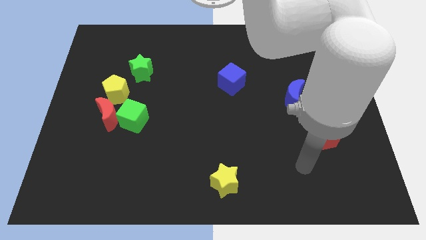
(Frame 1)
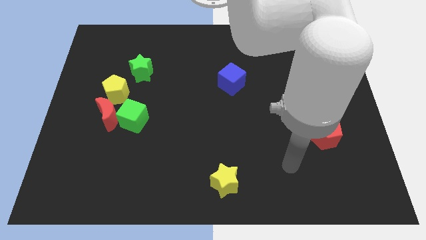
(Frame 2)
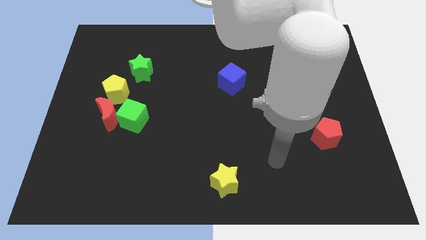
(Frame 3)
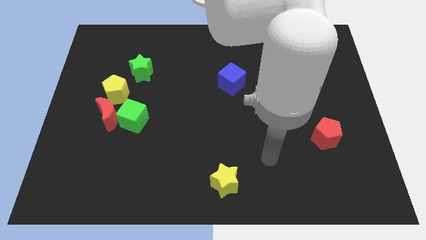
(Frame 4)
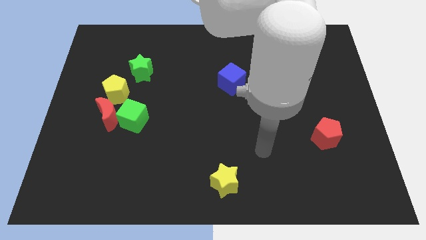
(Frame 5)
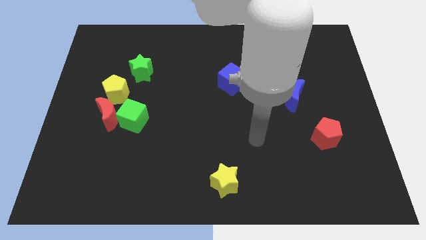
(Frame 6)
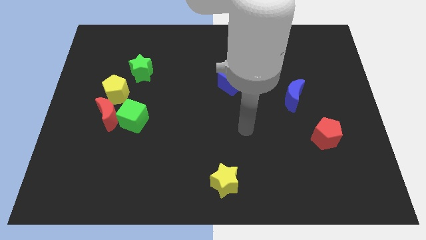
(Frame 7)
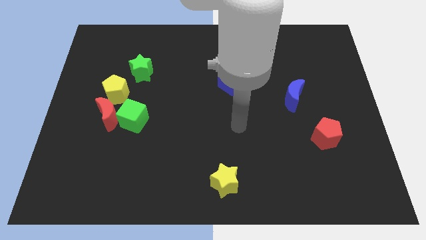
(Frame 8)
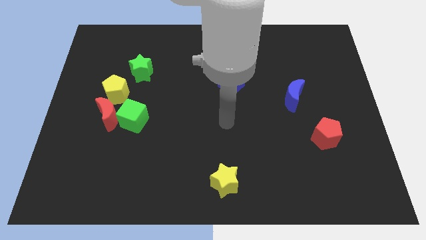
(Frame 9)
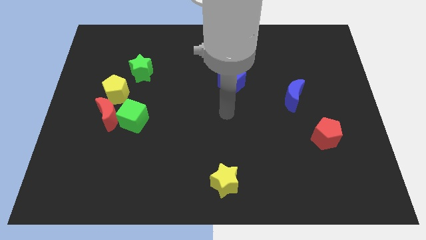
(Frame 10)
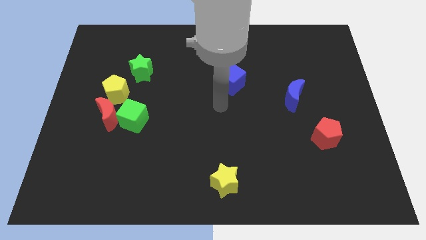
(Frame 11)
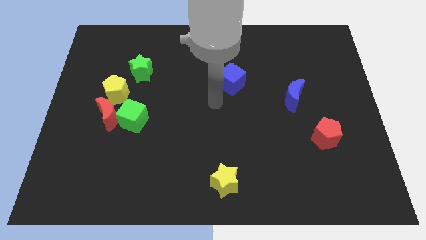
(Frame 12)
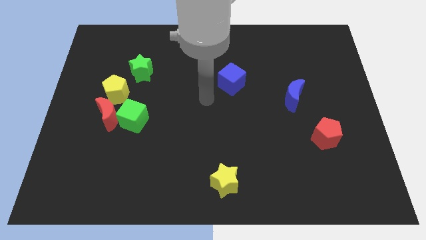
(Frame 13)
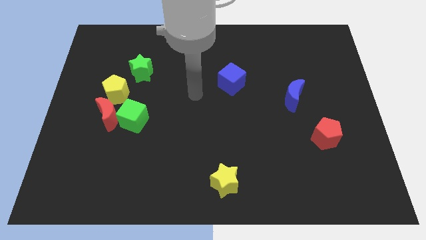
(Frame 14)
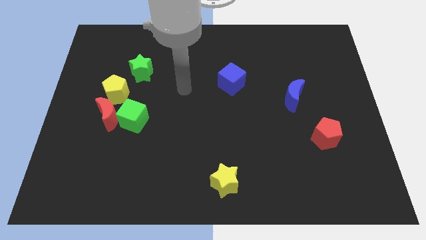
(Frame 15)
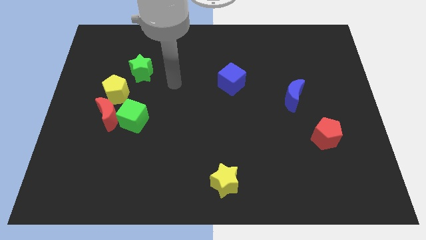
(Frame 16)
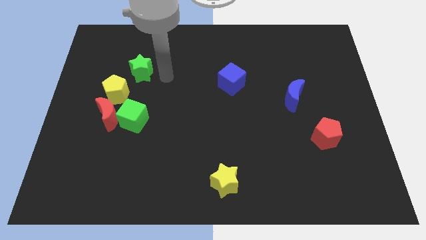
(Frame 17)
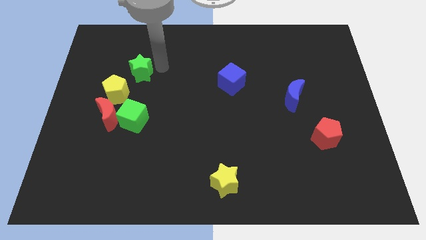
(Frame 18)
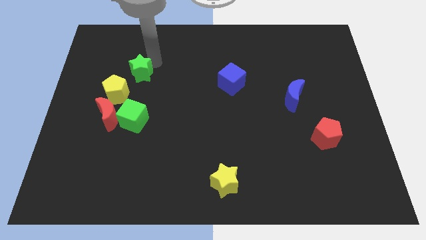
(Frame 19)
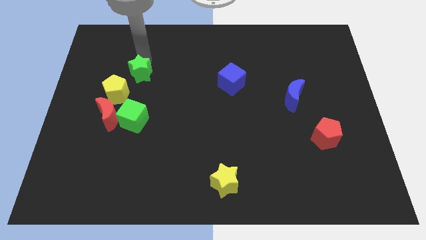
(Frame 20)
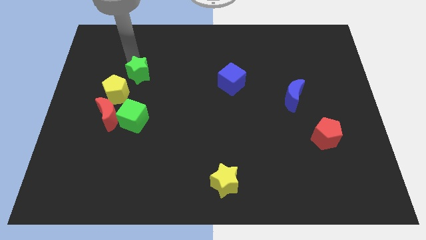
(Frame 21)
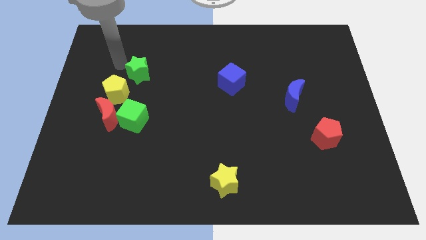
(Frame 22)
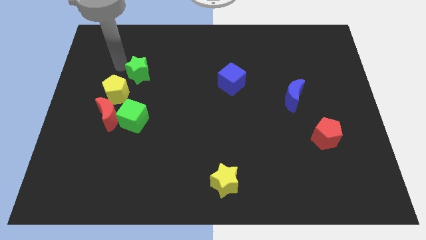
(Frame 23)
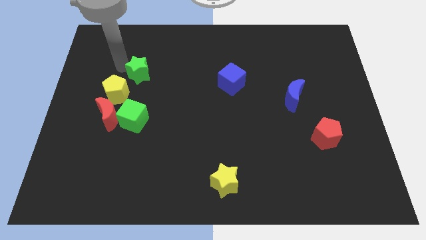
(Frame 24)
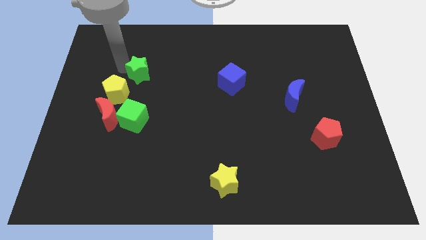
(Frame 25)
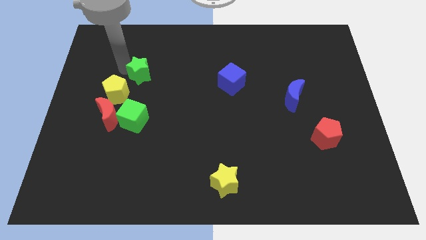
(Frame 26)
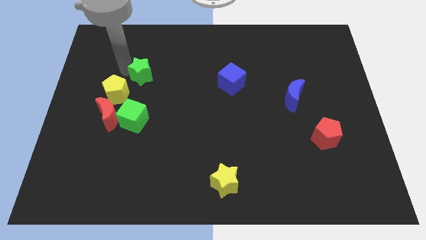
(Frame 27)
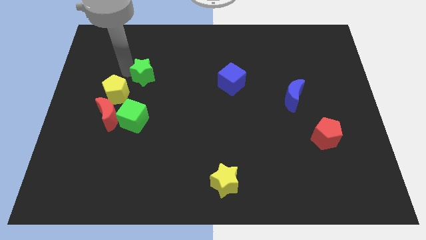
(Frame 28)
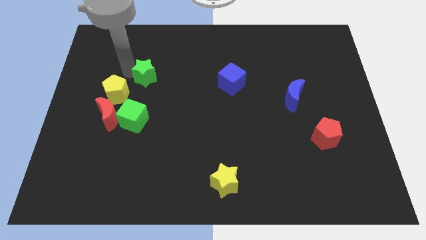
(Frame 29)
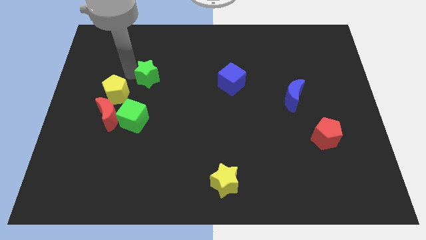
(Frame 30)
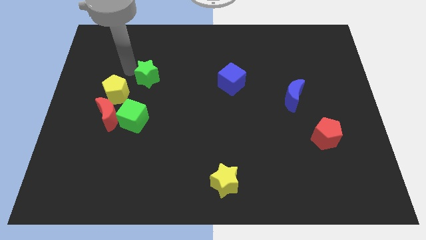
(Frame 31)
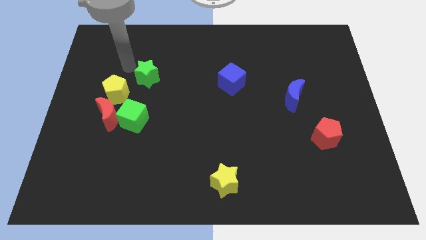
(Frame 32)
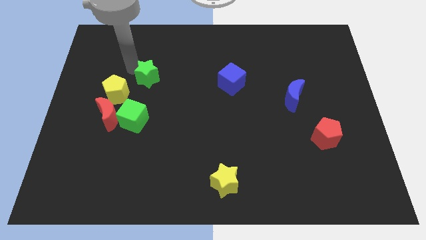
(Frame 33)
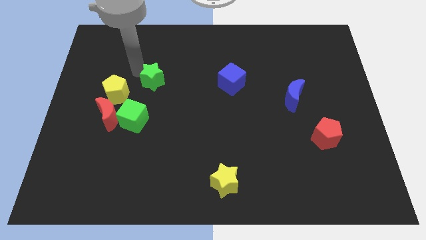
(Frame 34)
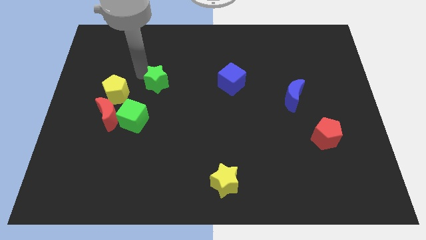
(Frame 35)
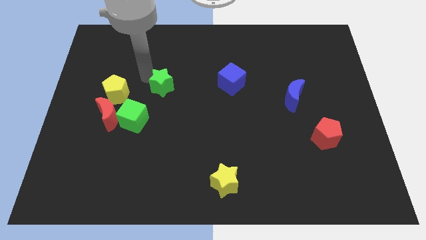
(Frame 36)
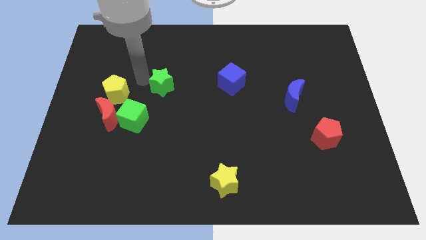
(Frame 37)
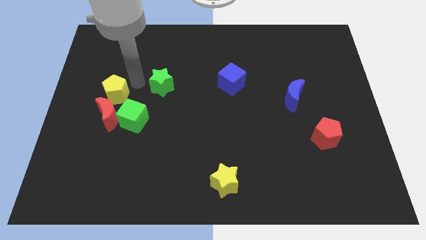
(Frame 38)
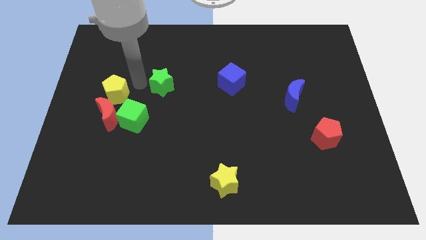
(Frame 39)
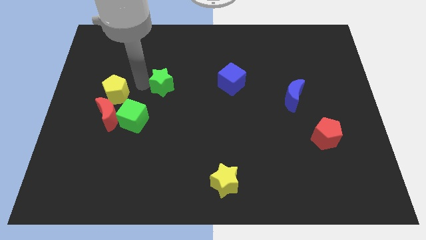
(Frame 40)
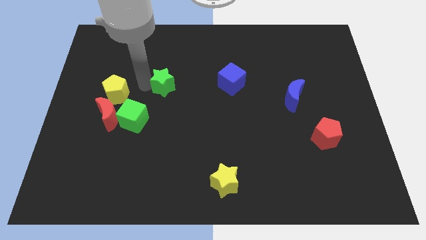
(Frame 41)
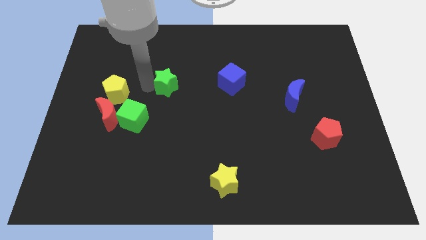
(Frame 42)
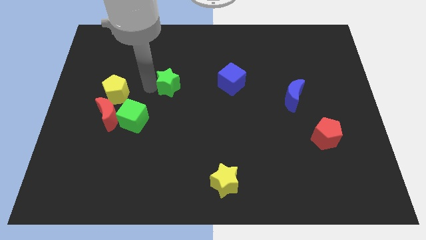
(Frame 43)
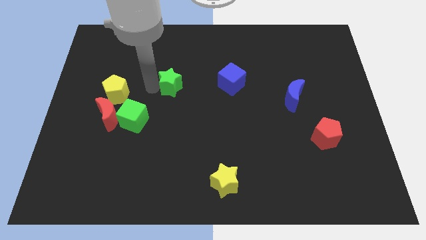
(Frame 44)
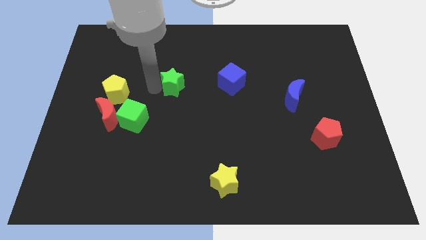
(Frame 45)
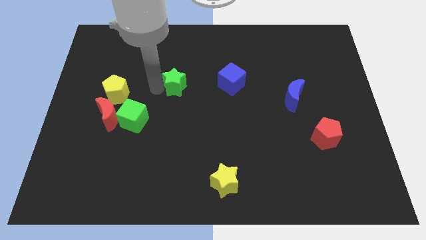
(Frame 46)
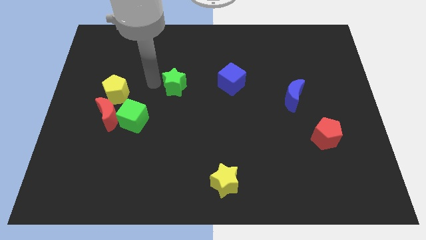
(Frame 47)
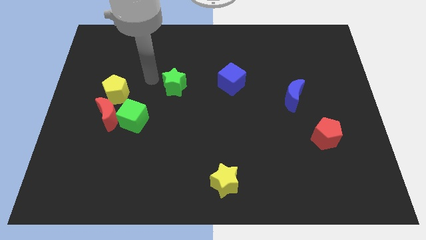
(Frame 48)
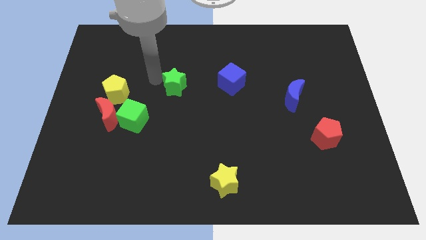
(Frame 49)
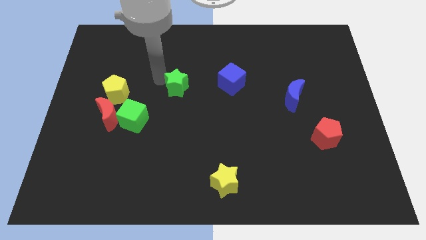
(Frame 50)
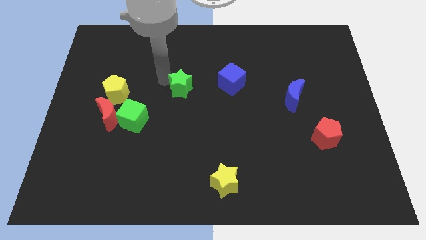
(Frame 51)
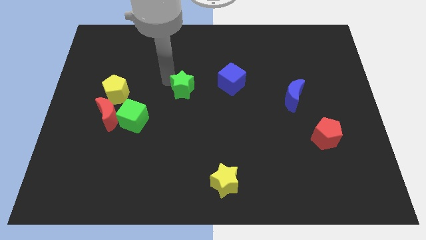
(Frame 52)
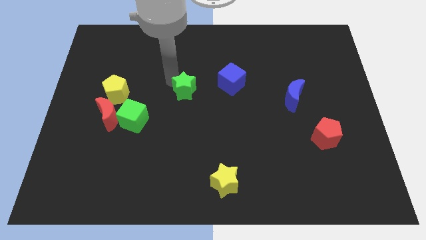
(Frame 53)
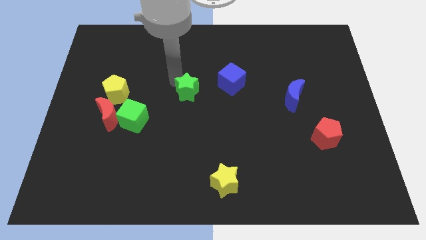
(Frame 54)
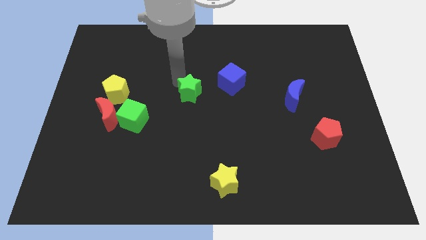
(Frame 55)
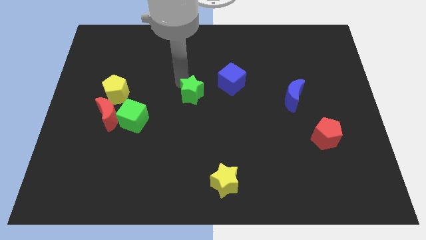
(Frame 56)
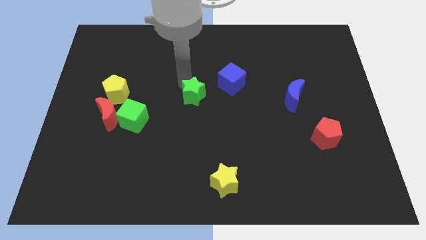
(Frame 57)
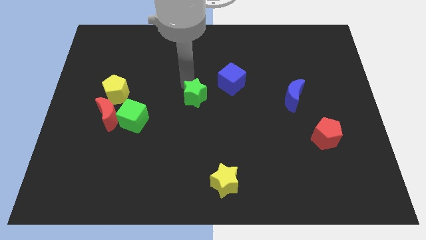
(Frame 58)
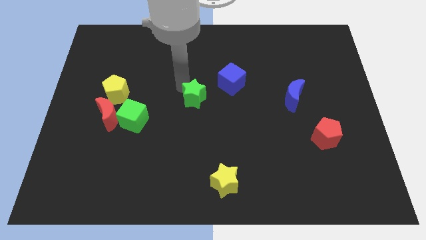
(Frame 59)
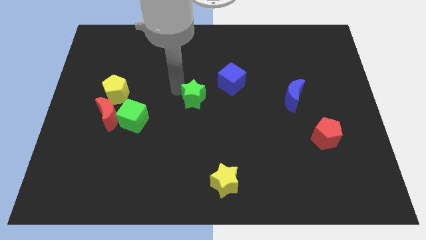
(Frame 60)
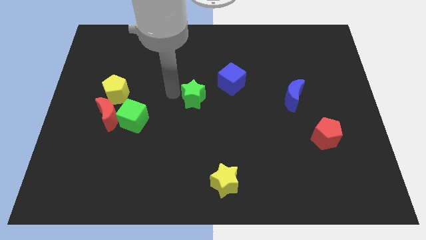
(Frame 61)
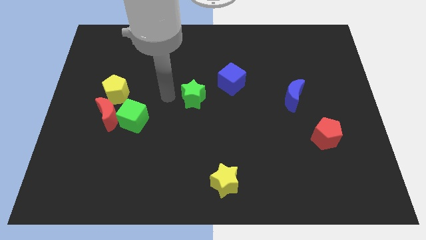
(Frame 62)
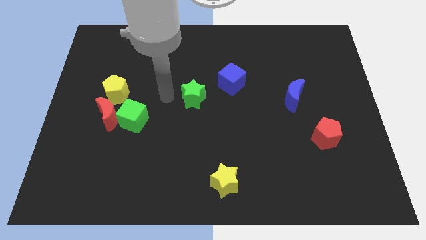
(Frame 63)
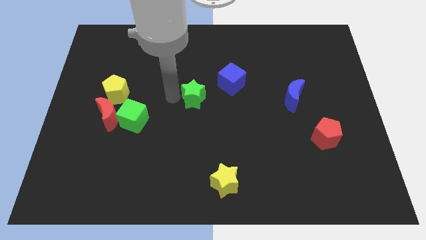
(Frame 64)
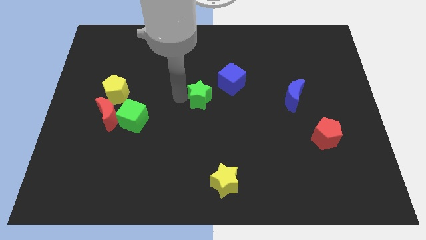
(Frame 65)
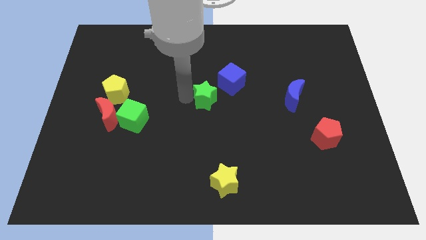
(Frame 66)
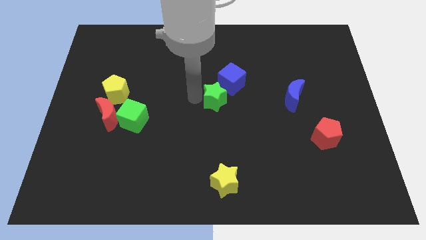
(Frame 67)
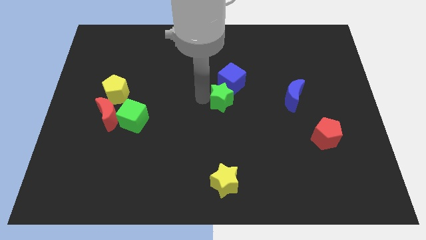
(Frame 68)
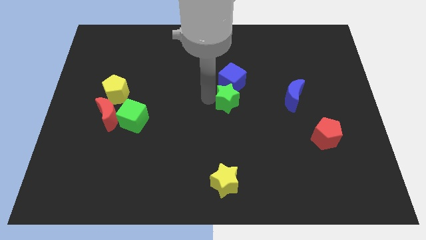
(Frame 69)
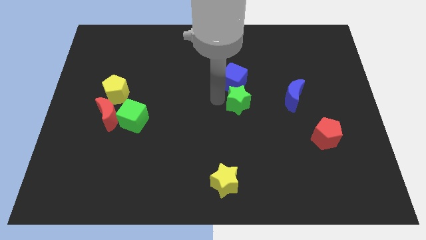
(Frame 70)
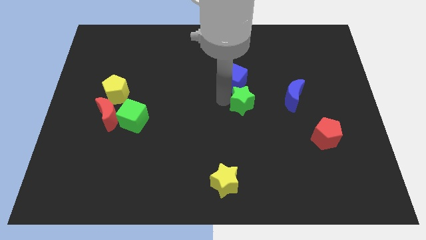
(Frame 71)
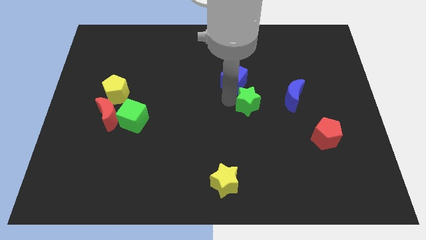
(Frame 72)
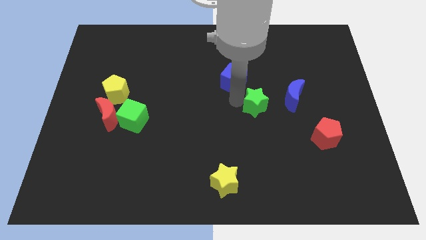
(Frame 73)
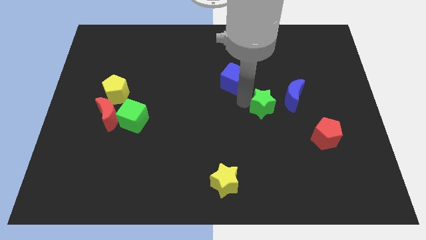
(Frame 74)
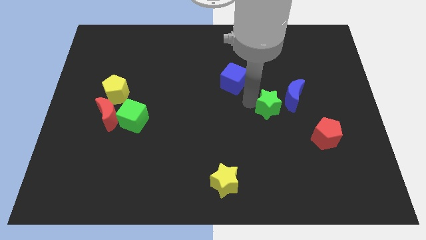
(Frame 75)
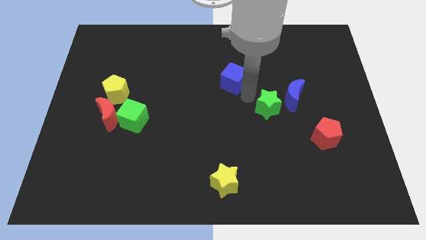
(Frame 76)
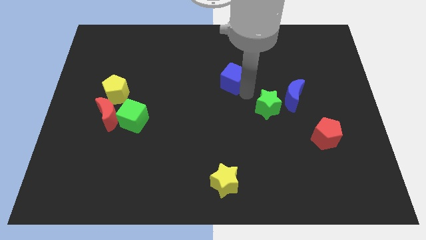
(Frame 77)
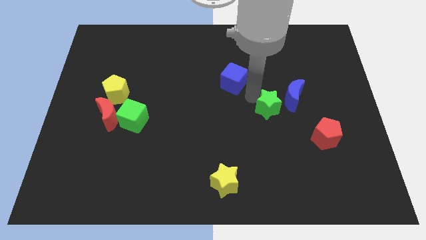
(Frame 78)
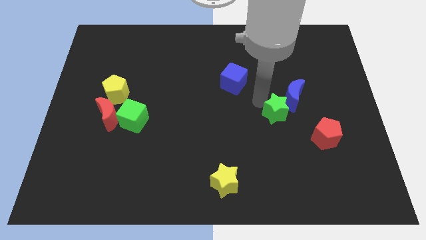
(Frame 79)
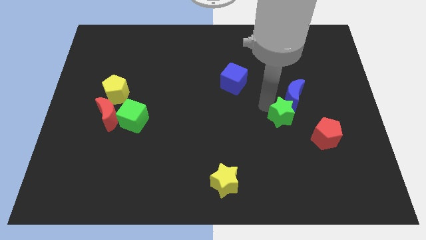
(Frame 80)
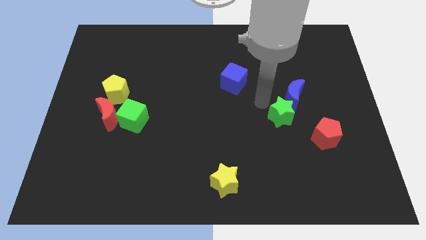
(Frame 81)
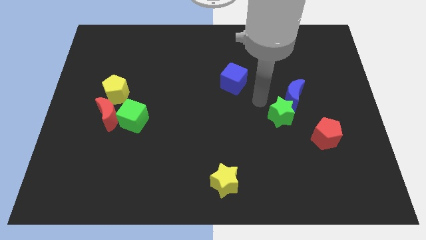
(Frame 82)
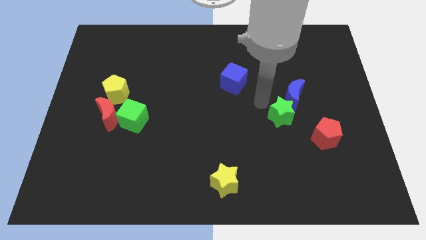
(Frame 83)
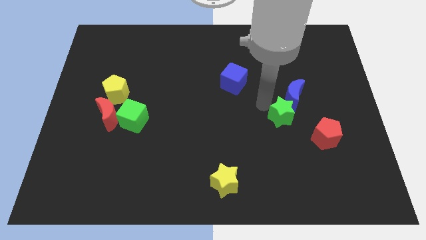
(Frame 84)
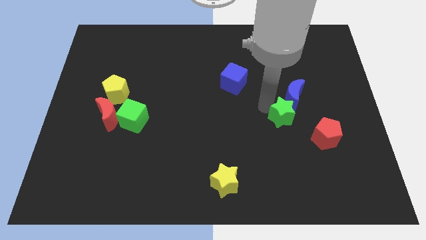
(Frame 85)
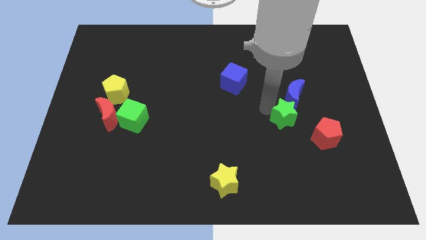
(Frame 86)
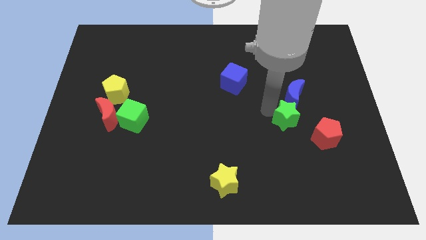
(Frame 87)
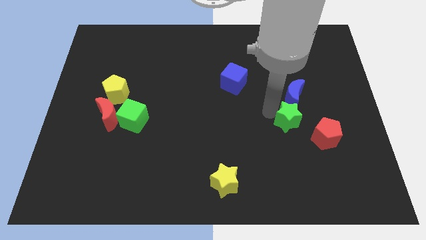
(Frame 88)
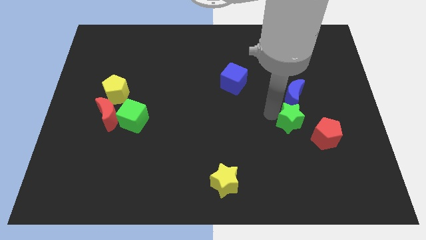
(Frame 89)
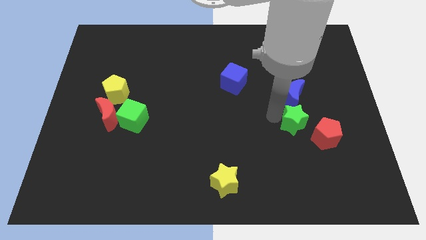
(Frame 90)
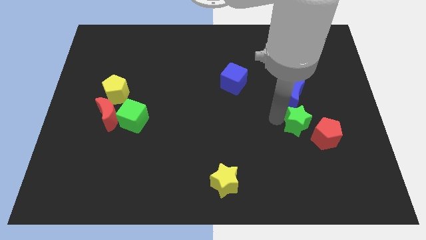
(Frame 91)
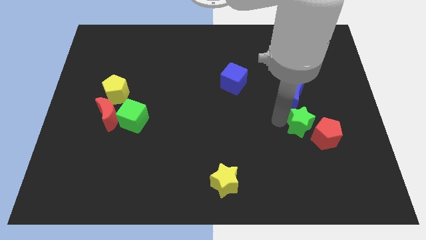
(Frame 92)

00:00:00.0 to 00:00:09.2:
put the green star towards the red pentagon
